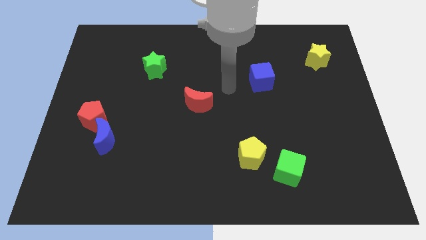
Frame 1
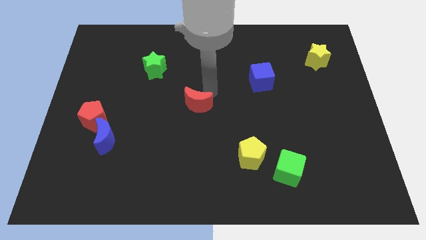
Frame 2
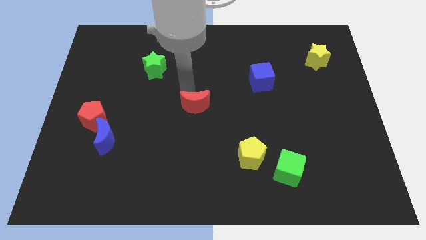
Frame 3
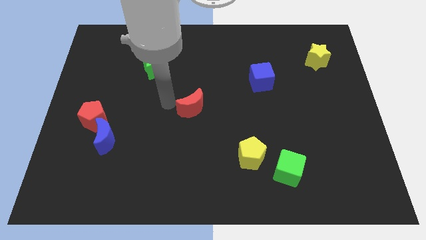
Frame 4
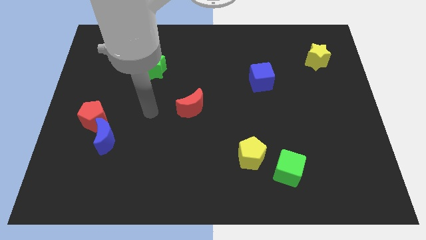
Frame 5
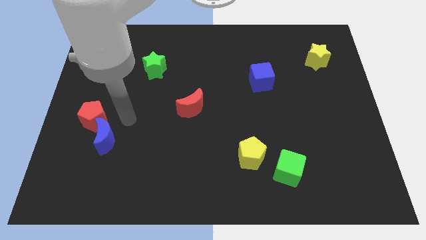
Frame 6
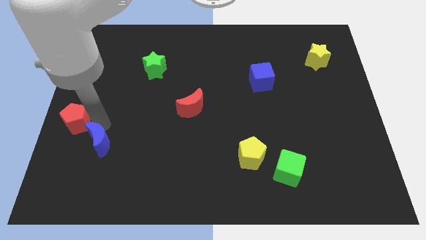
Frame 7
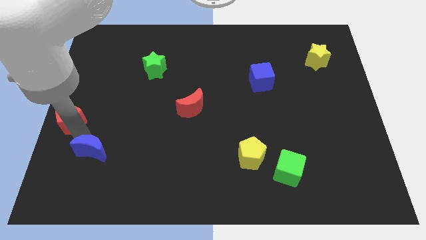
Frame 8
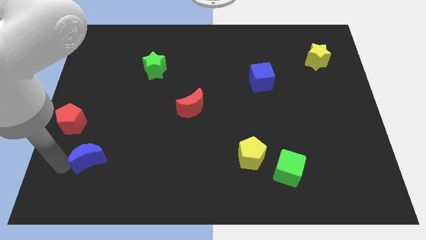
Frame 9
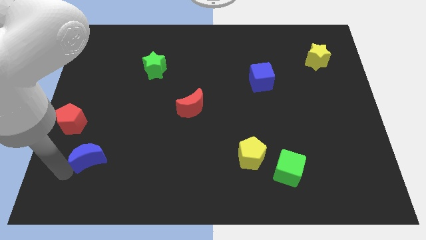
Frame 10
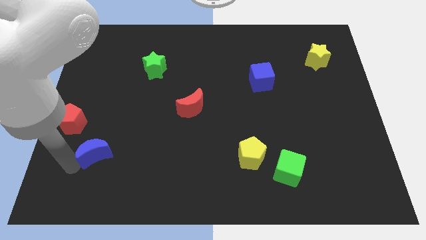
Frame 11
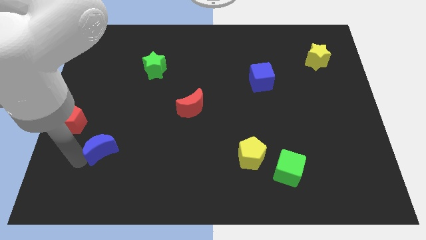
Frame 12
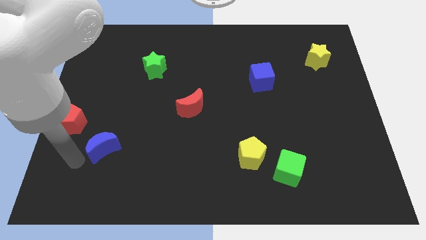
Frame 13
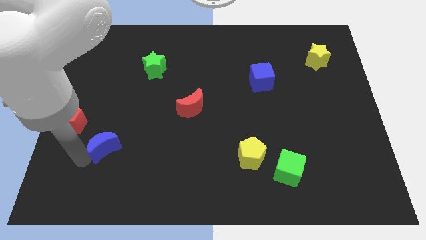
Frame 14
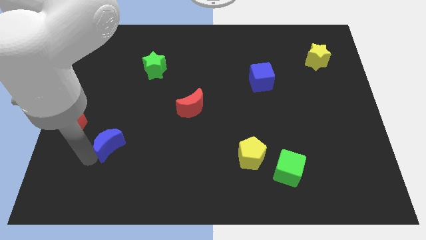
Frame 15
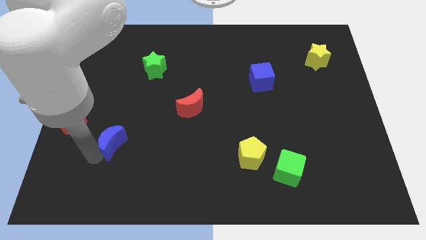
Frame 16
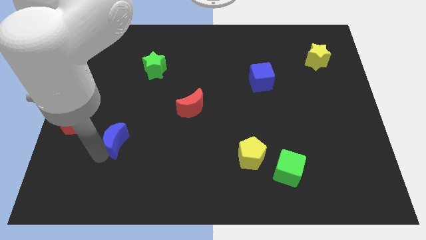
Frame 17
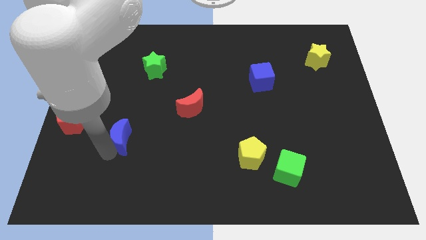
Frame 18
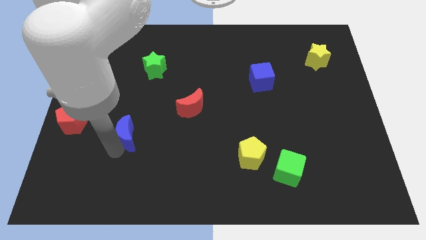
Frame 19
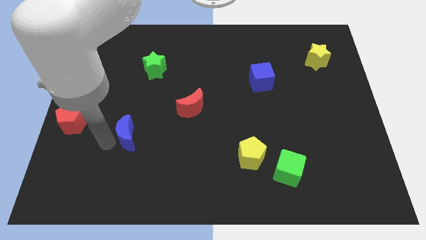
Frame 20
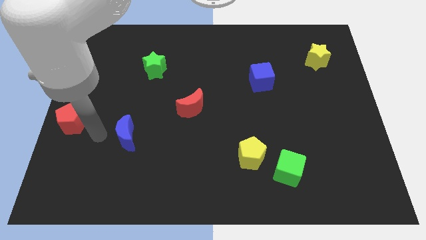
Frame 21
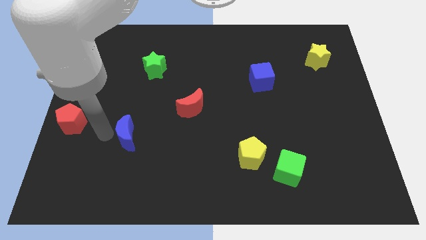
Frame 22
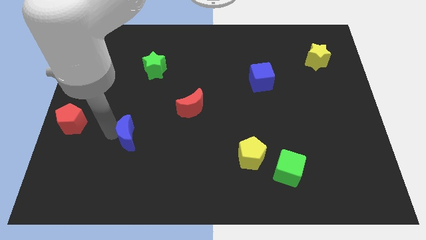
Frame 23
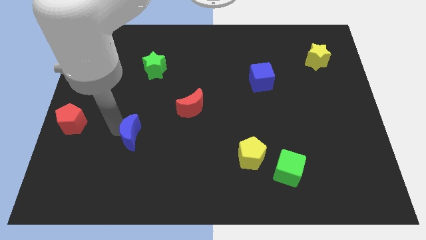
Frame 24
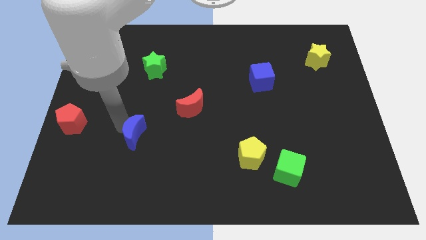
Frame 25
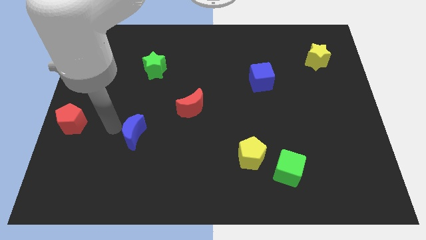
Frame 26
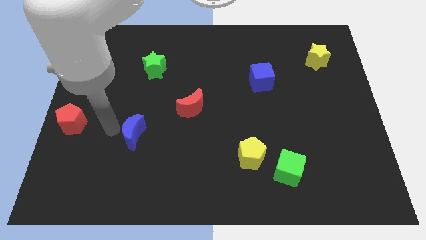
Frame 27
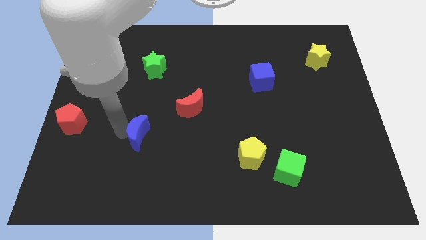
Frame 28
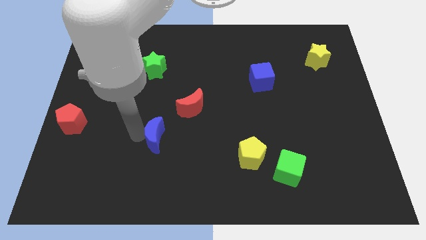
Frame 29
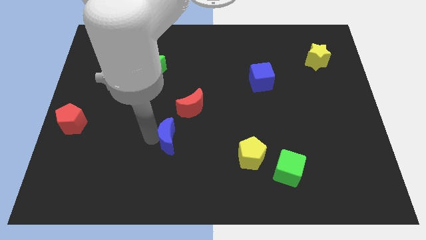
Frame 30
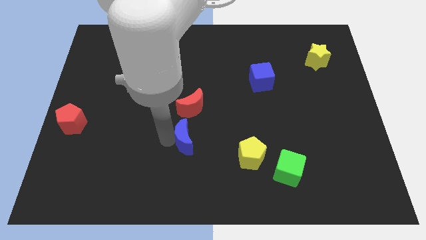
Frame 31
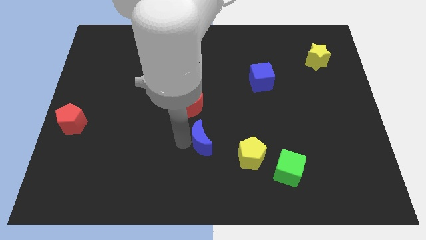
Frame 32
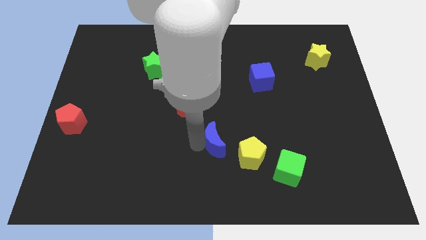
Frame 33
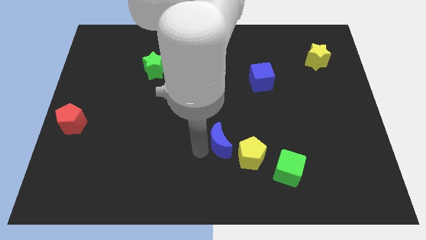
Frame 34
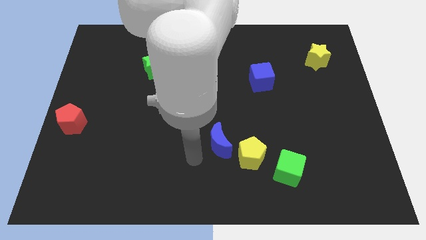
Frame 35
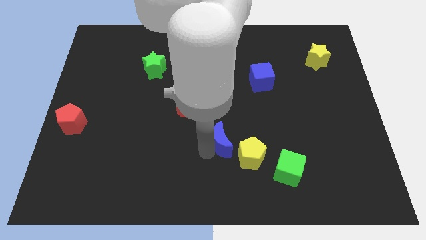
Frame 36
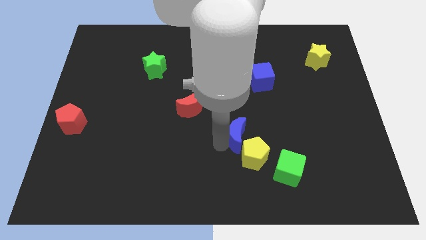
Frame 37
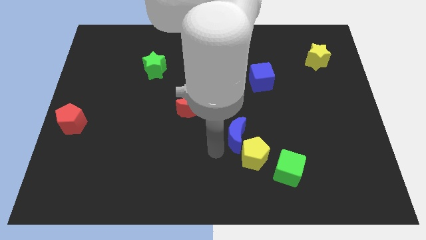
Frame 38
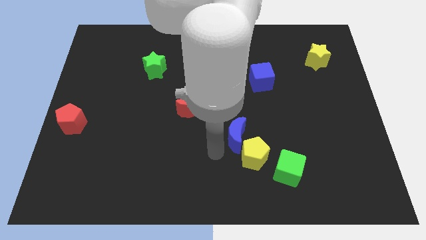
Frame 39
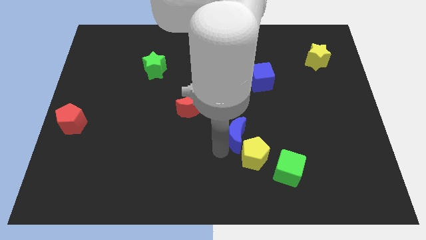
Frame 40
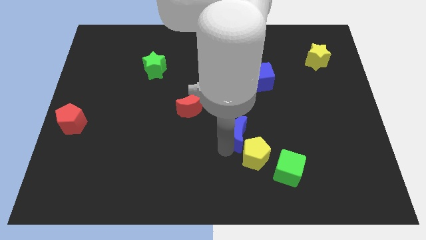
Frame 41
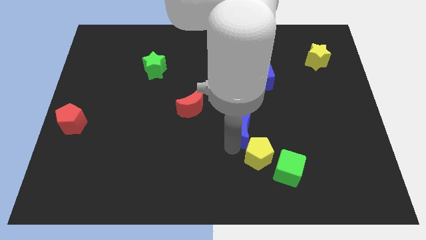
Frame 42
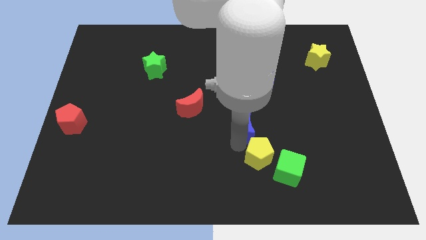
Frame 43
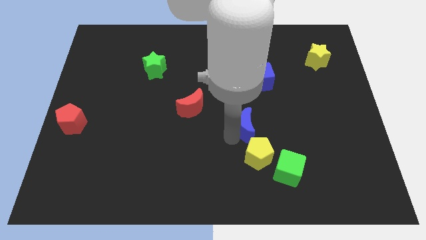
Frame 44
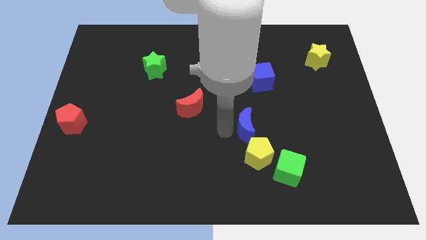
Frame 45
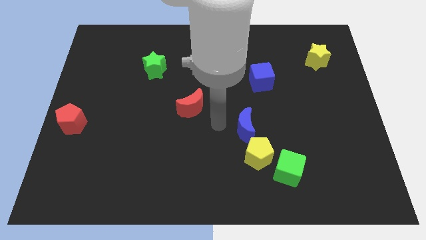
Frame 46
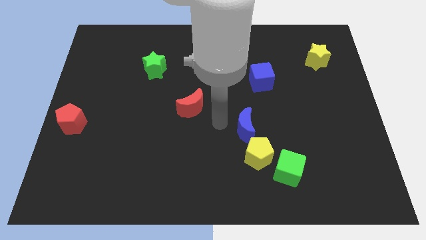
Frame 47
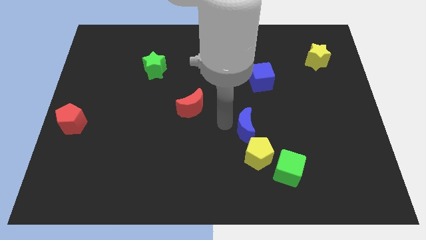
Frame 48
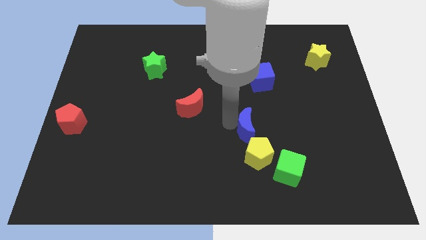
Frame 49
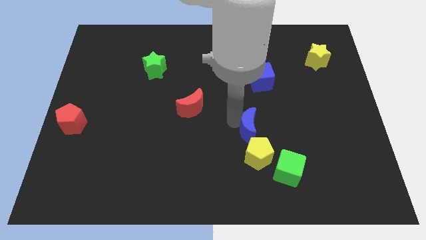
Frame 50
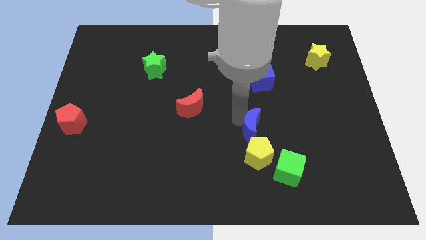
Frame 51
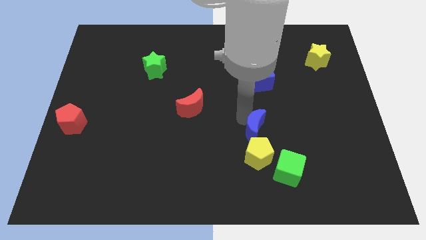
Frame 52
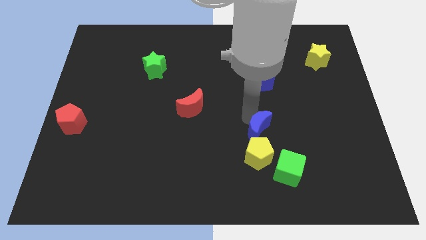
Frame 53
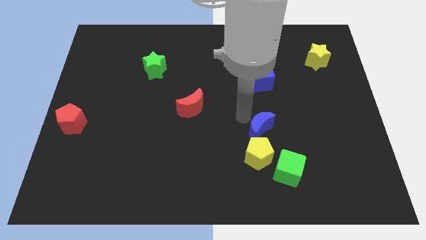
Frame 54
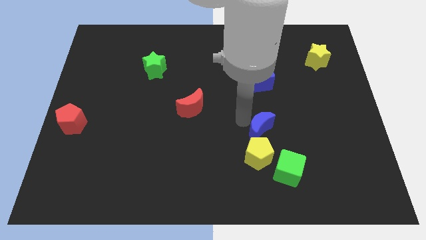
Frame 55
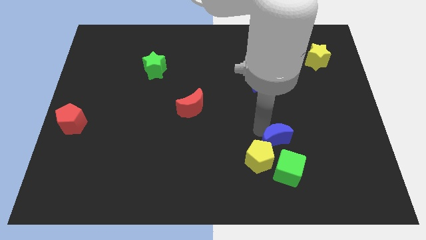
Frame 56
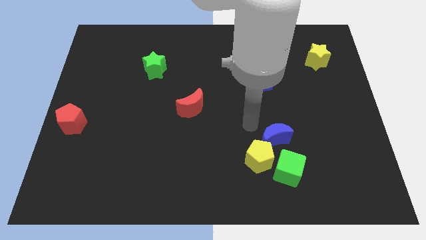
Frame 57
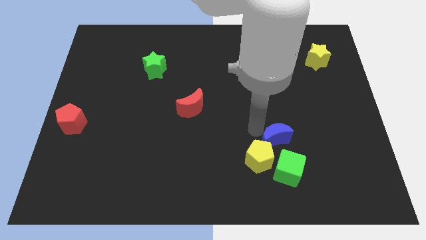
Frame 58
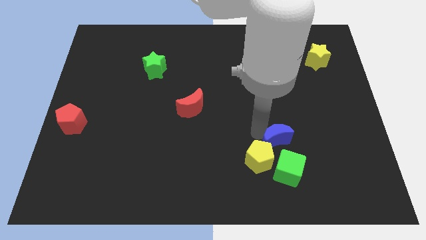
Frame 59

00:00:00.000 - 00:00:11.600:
put the blue moon just right of the yellow pentagon
